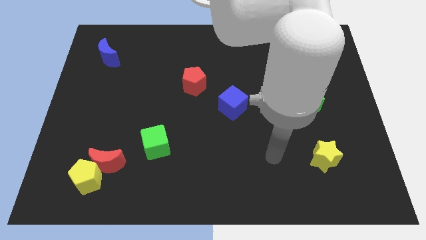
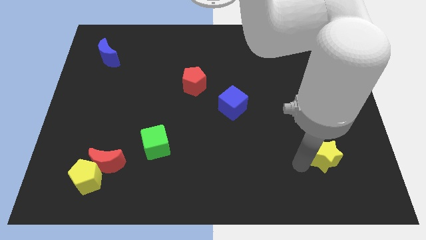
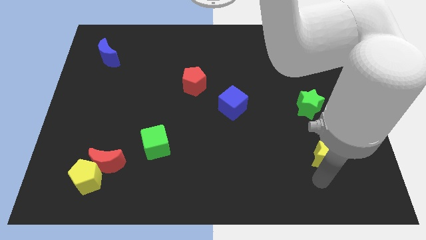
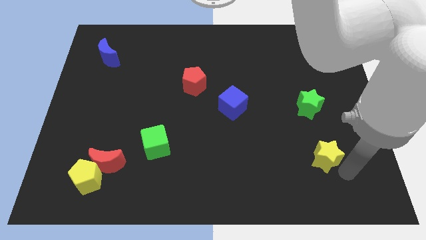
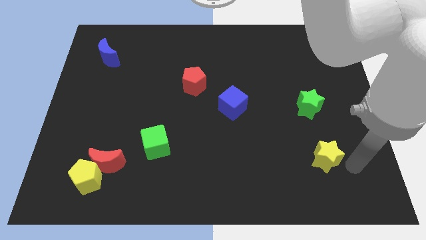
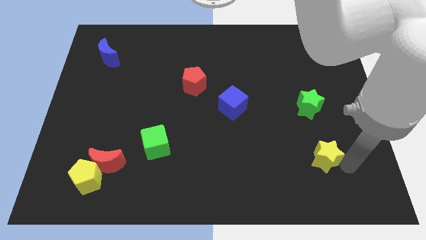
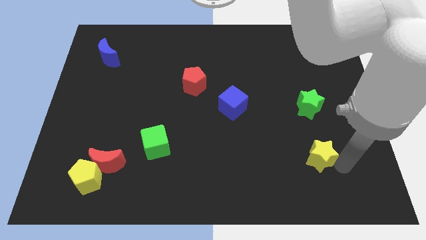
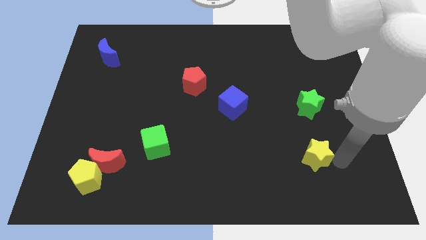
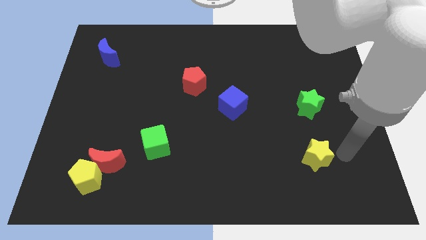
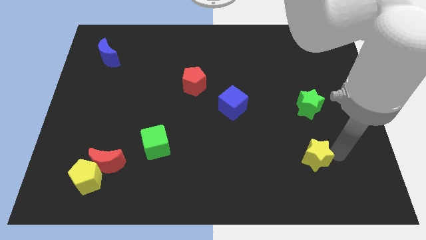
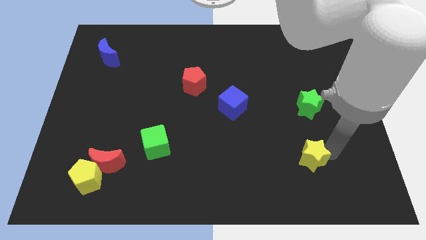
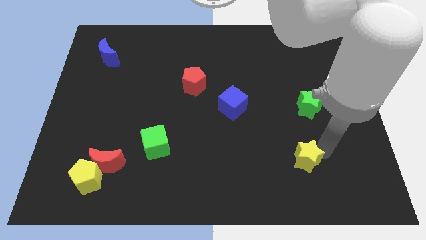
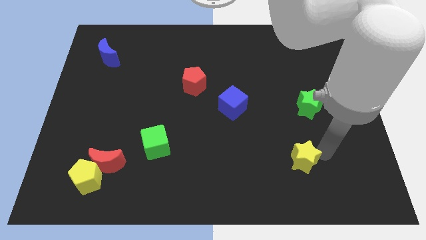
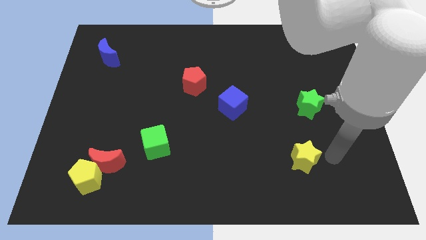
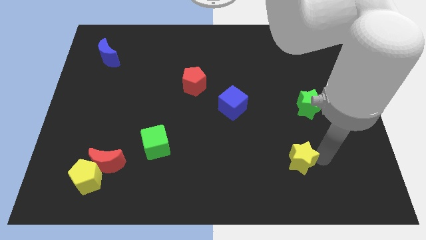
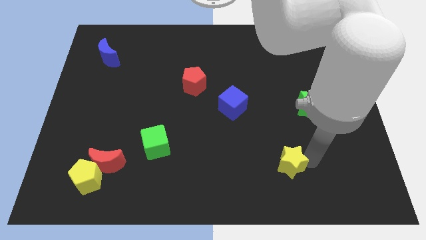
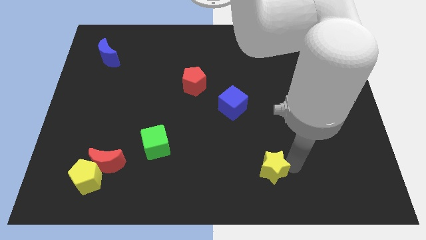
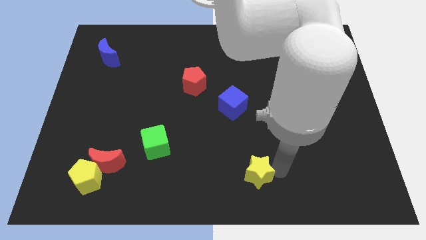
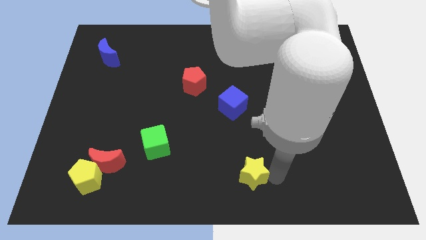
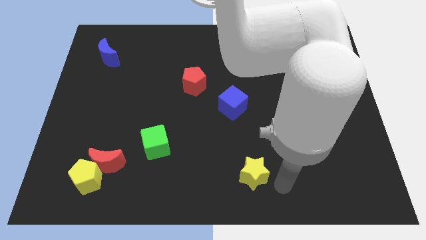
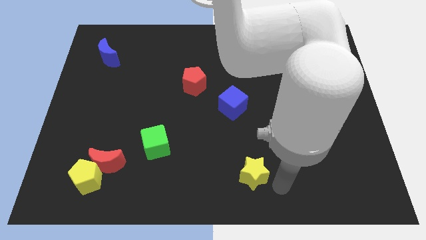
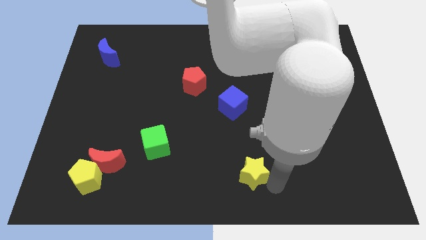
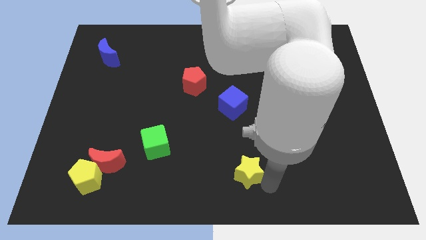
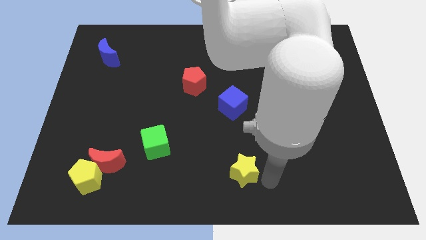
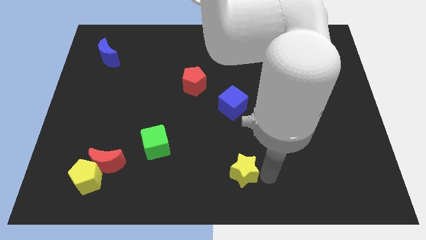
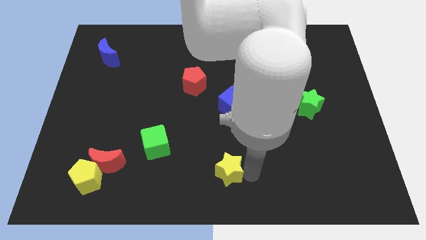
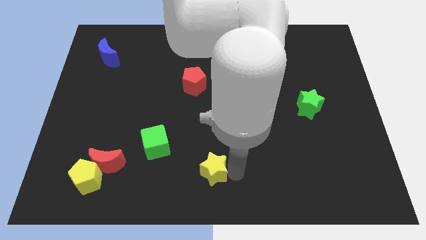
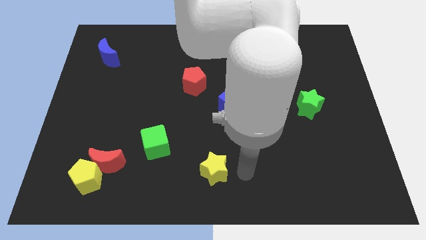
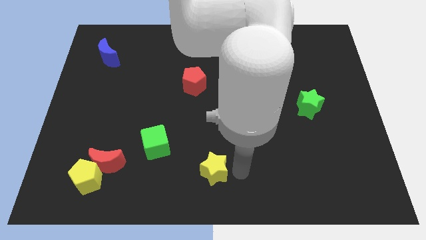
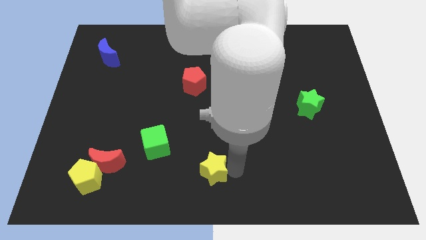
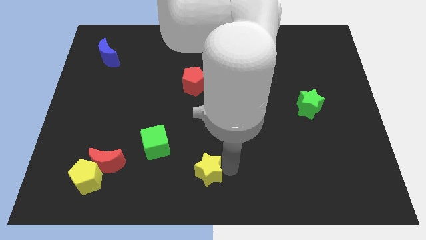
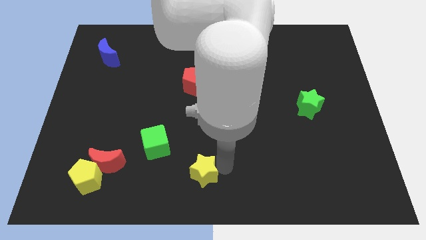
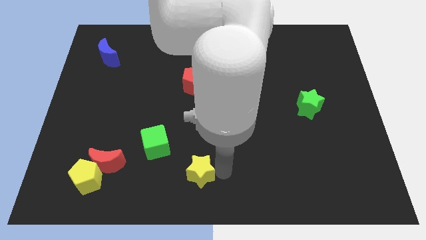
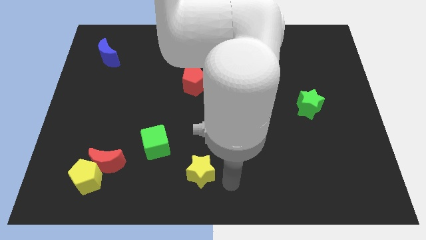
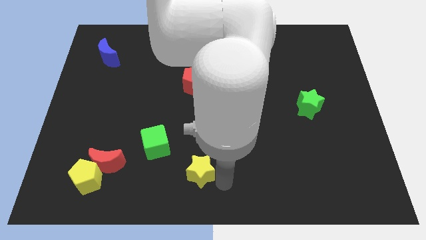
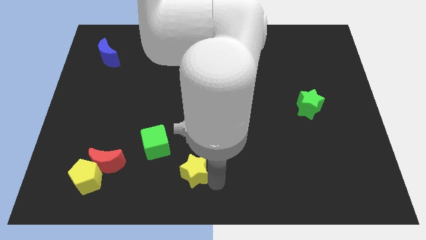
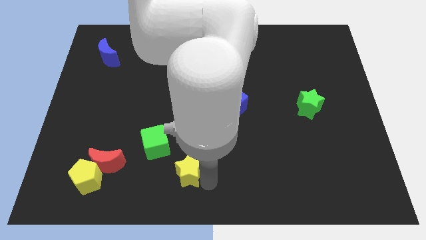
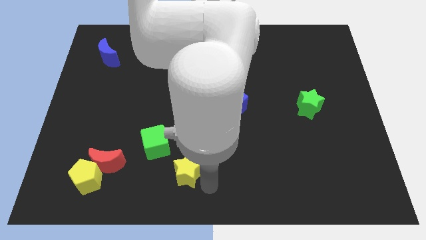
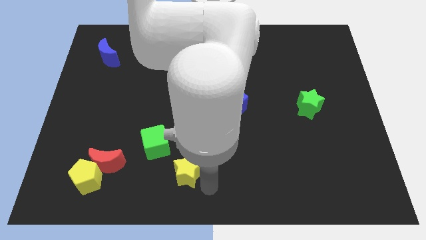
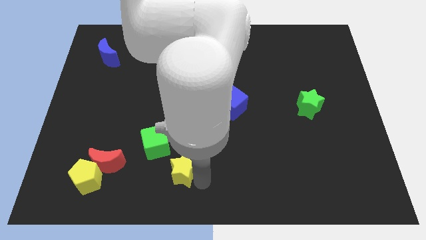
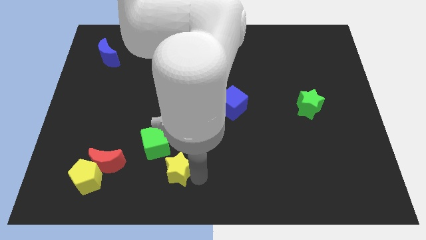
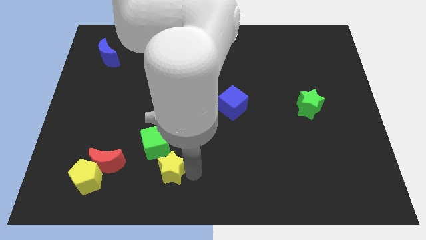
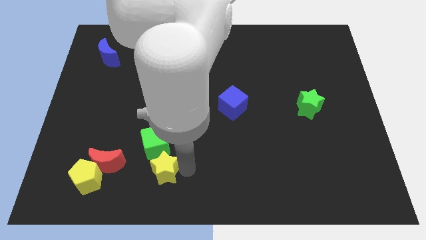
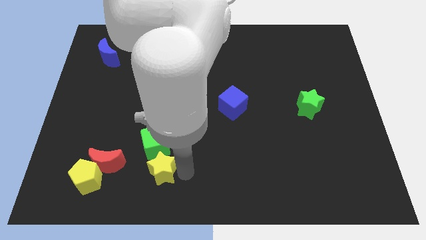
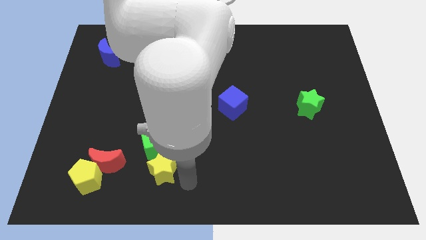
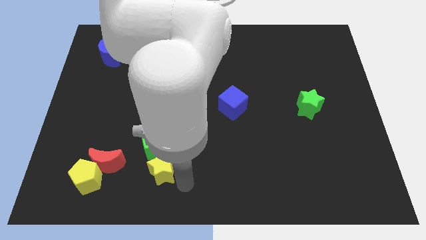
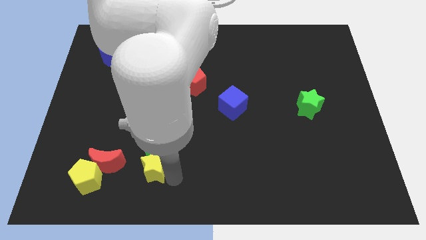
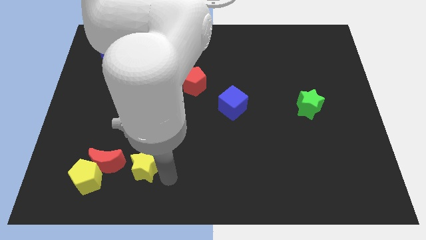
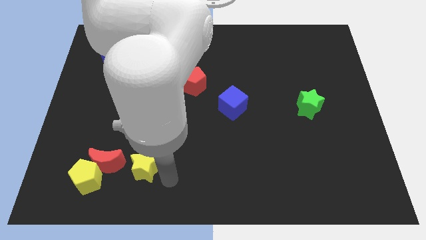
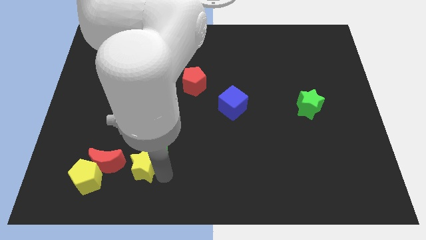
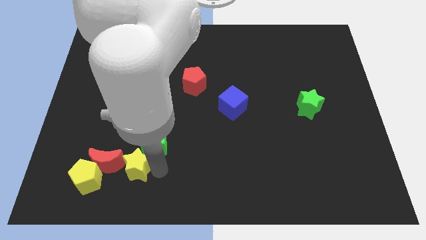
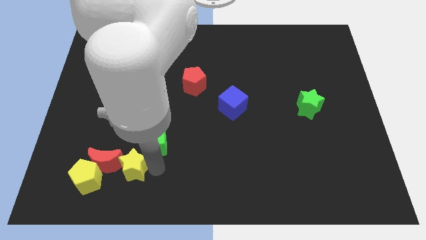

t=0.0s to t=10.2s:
put the yellow star diagonally up and to the right of the yellow pentagon

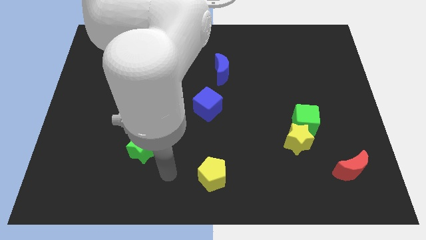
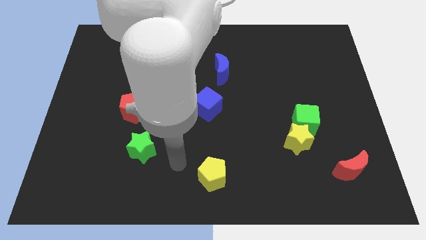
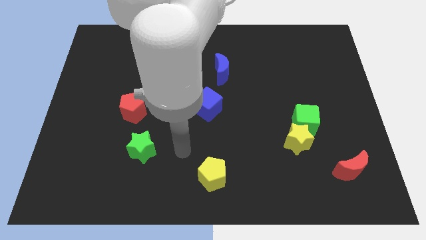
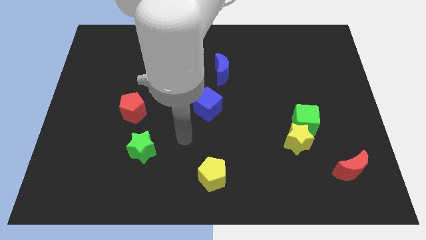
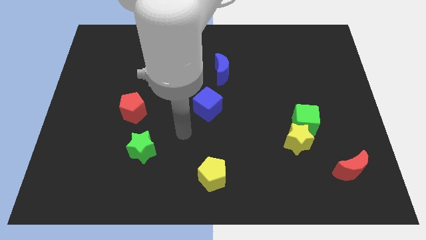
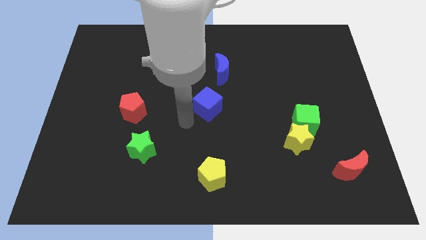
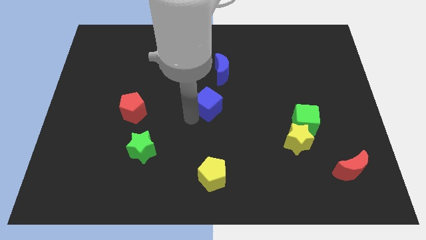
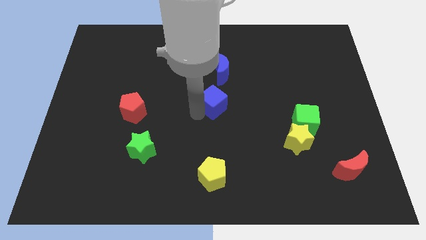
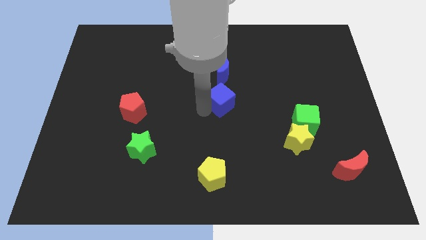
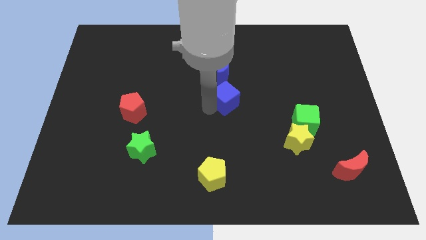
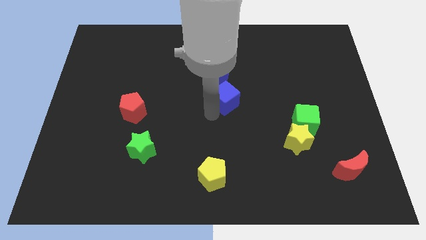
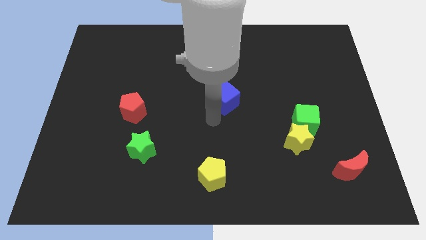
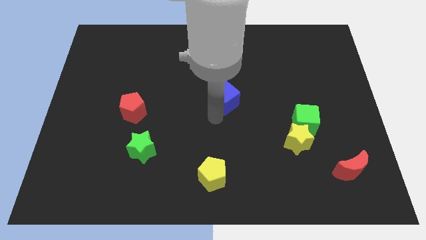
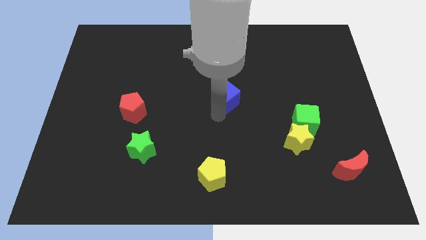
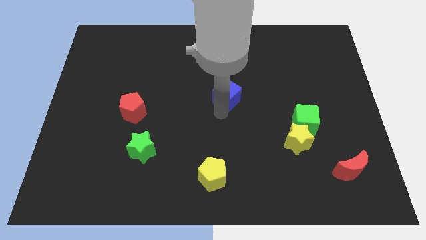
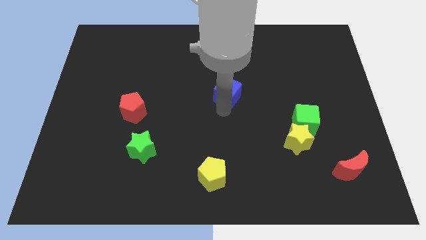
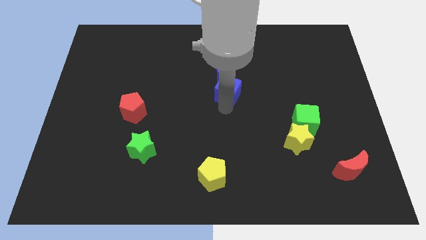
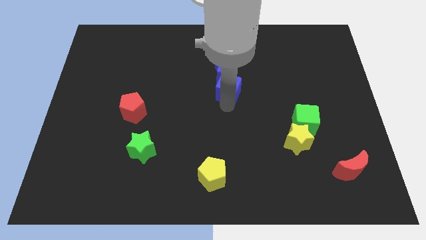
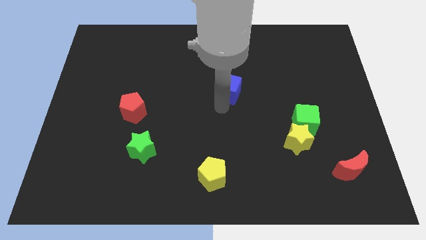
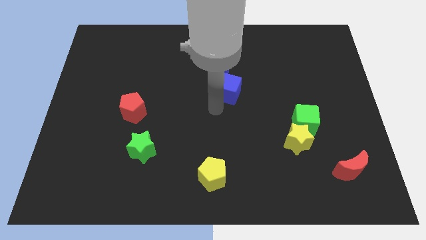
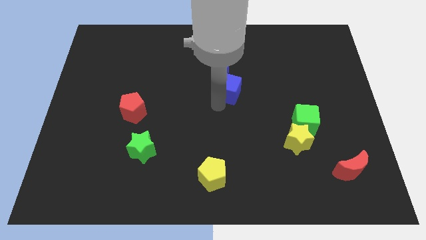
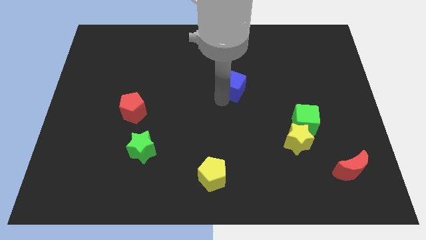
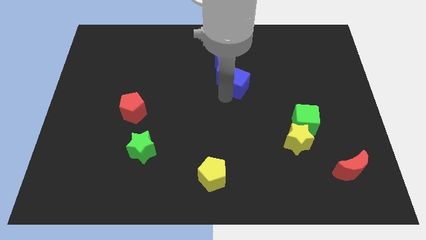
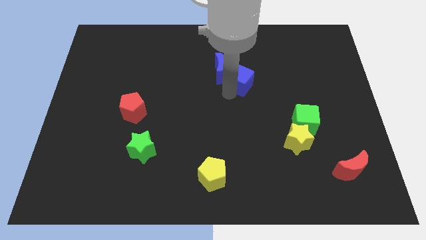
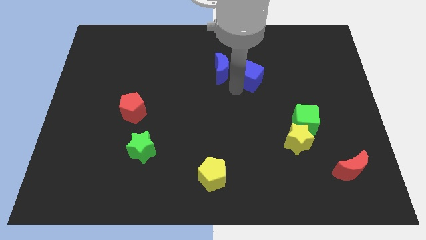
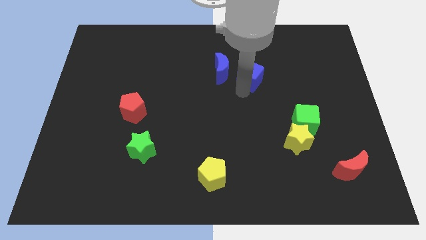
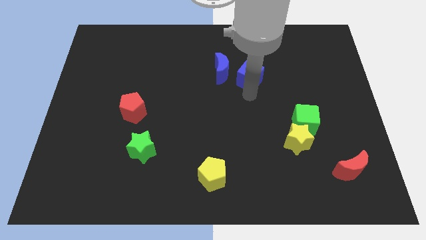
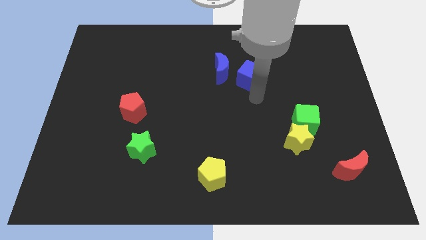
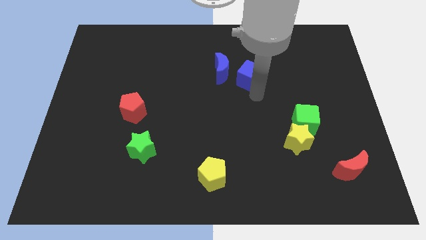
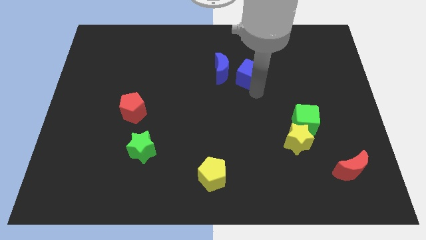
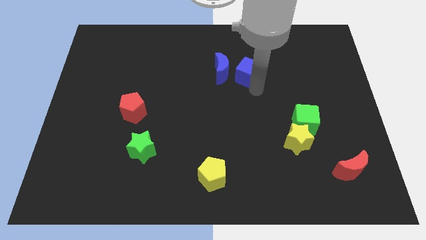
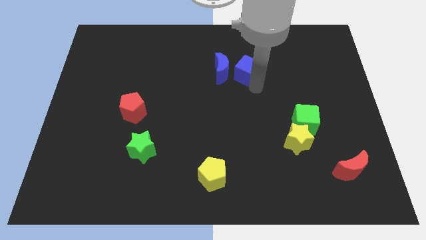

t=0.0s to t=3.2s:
slide the blue cube diagonally up and to the right of the blue moon
